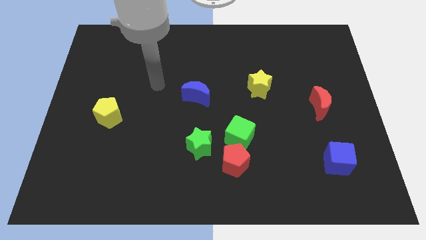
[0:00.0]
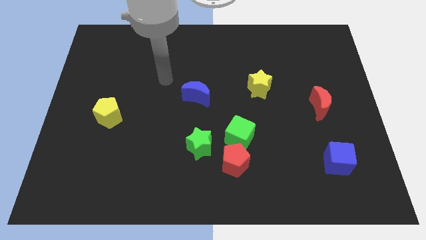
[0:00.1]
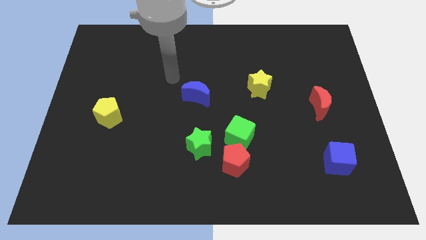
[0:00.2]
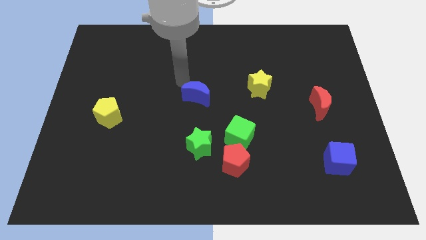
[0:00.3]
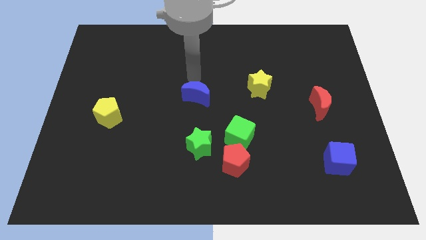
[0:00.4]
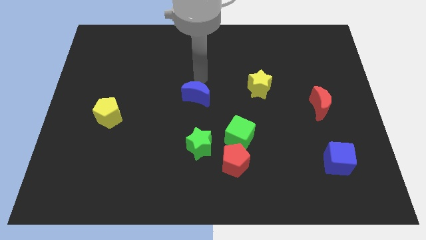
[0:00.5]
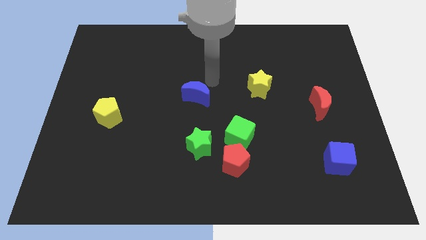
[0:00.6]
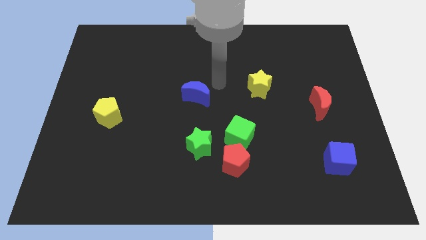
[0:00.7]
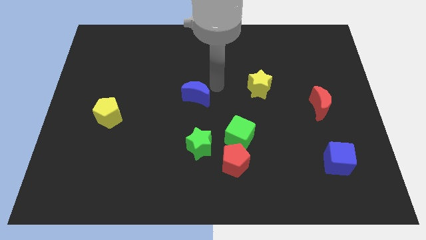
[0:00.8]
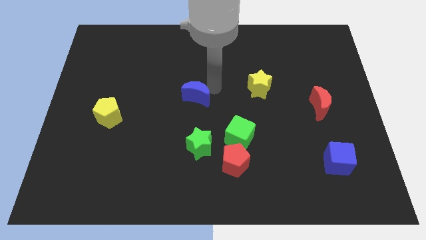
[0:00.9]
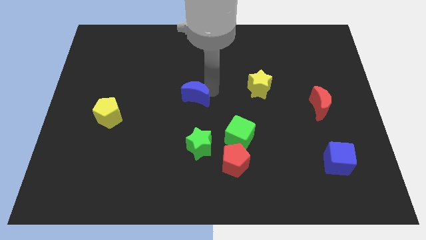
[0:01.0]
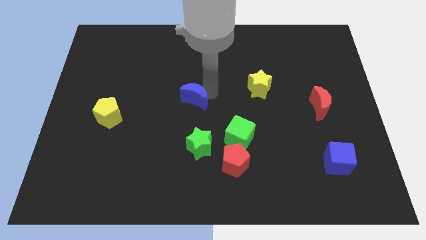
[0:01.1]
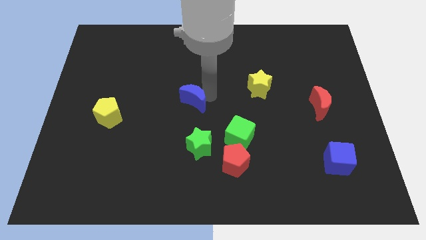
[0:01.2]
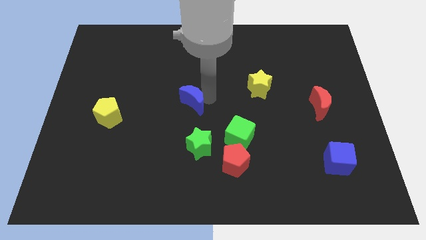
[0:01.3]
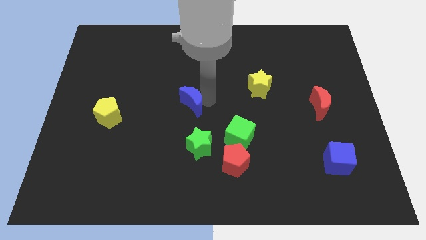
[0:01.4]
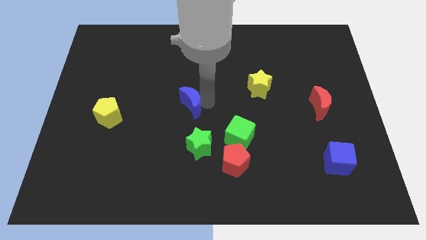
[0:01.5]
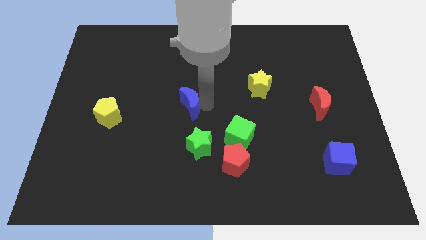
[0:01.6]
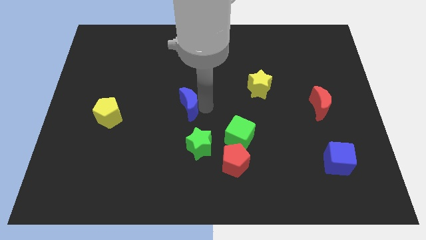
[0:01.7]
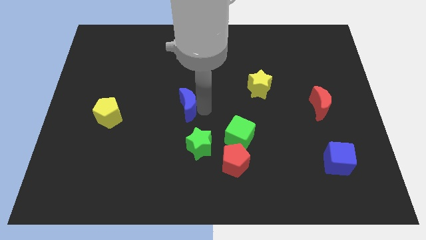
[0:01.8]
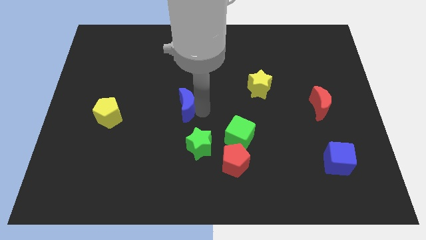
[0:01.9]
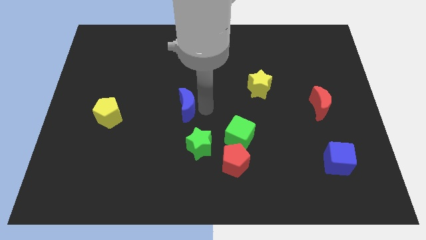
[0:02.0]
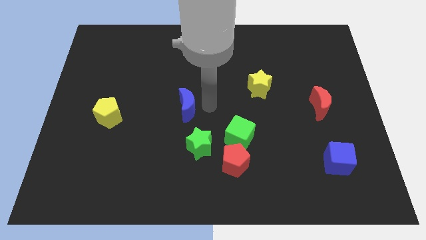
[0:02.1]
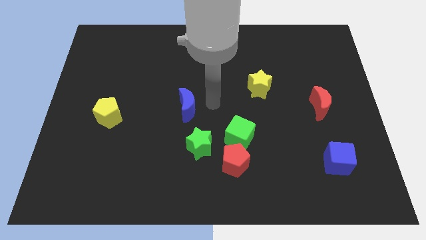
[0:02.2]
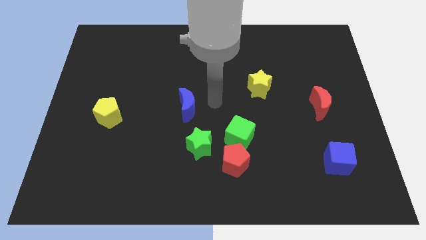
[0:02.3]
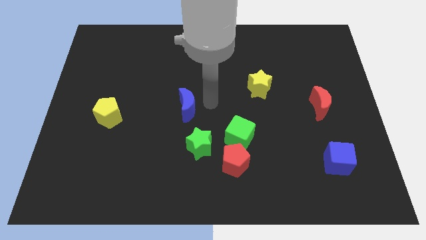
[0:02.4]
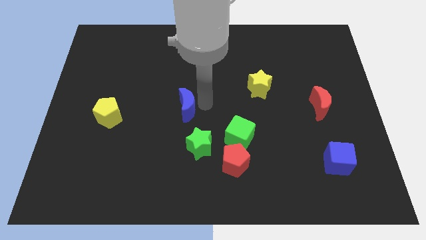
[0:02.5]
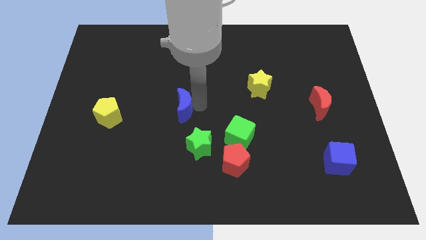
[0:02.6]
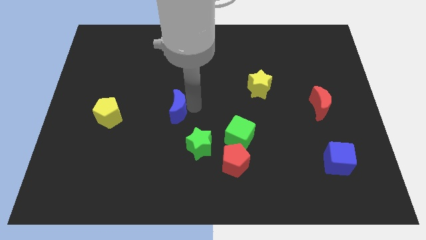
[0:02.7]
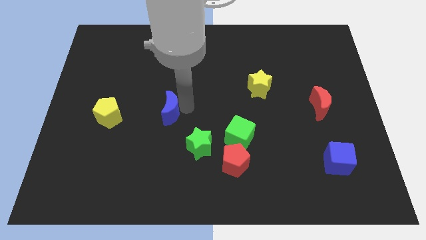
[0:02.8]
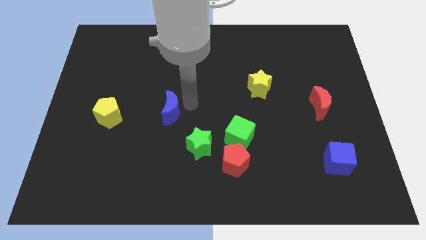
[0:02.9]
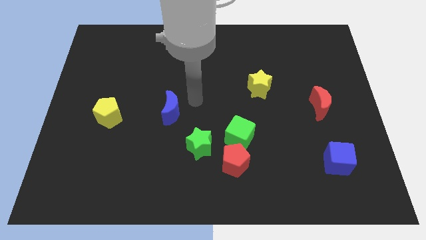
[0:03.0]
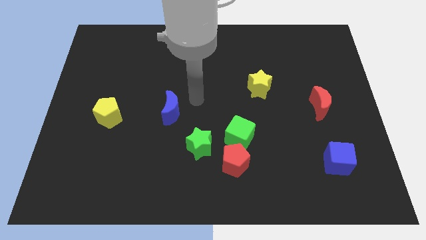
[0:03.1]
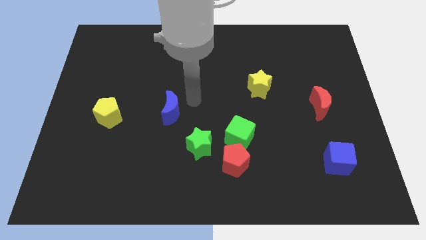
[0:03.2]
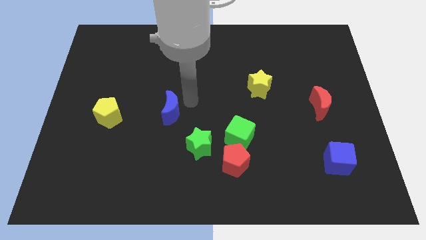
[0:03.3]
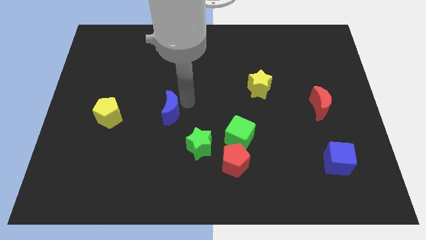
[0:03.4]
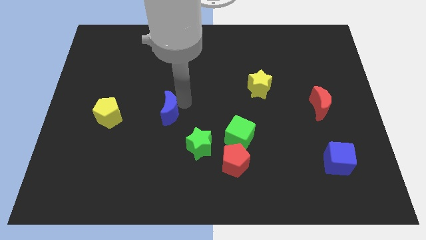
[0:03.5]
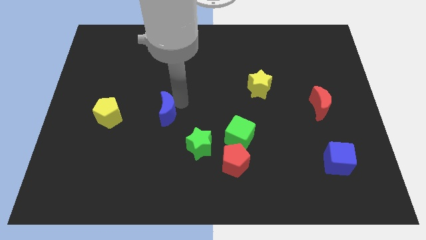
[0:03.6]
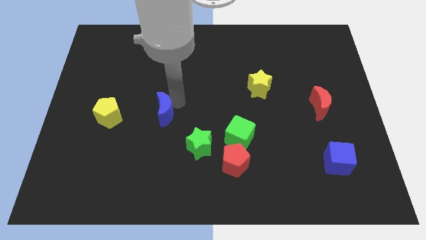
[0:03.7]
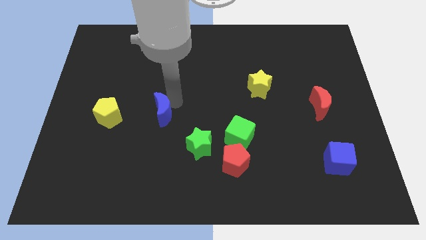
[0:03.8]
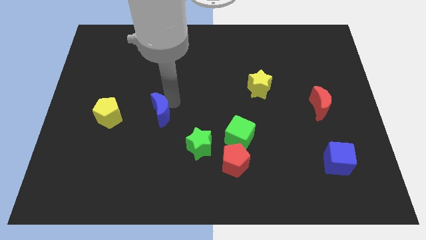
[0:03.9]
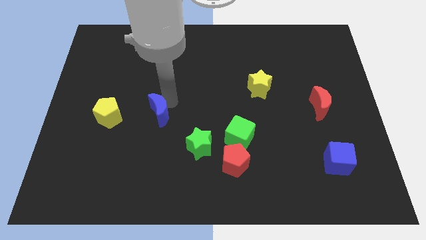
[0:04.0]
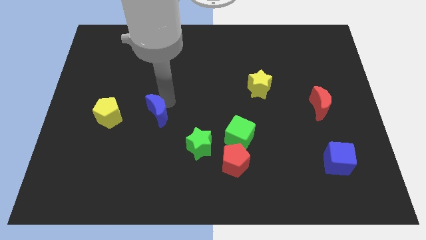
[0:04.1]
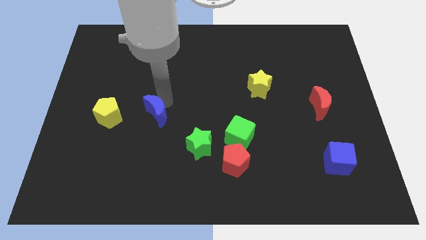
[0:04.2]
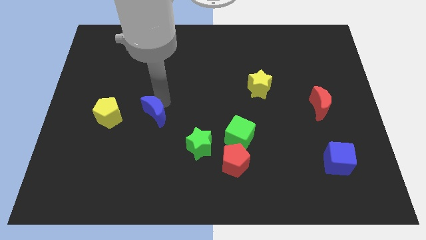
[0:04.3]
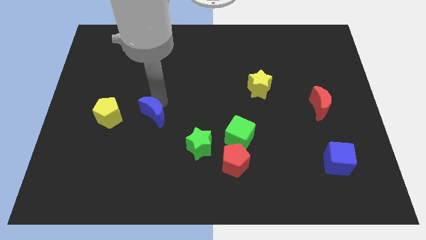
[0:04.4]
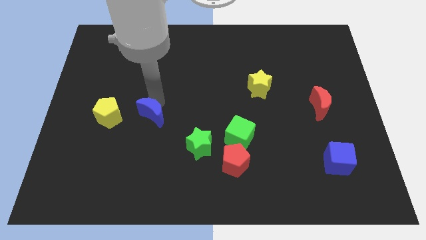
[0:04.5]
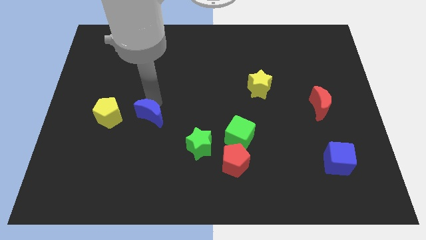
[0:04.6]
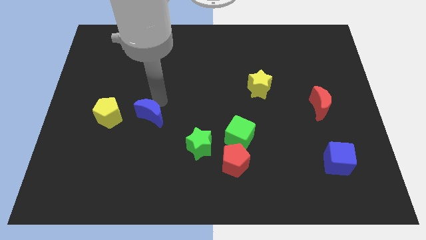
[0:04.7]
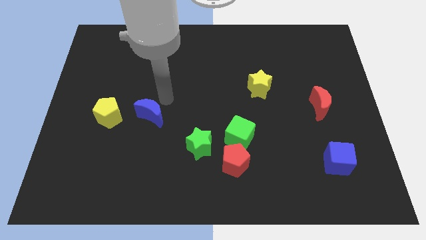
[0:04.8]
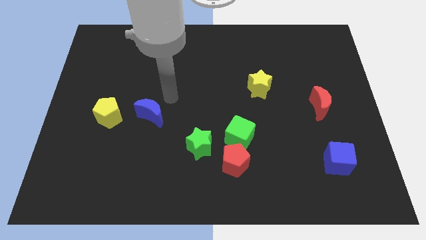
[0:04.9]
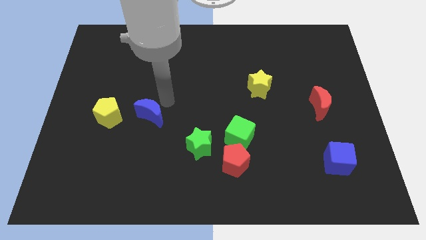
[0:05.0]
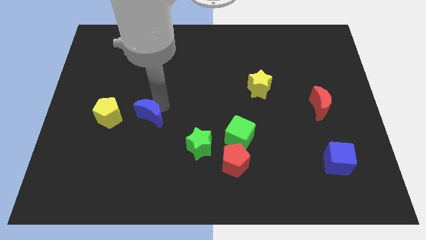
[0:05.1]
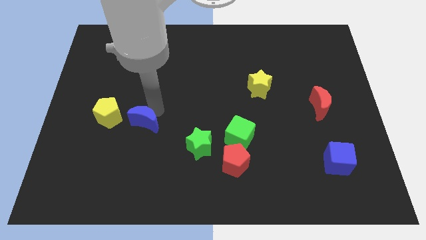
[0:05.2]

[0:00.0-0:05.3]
push the blue moon to the bottom right of the yellow pentagon
